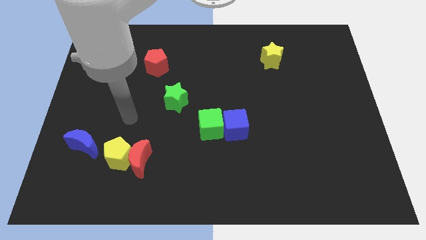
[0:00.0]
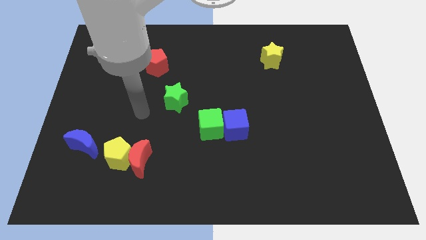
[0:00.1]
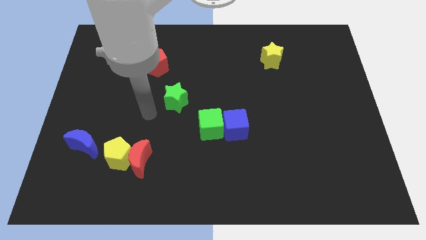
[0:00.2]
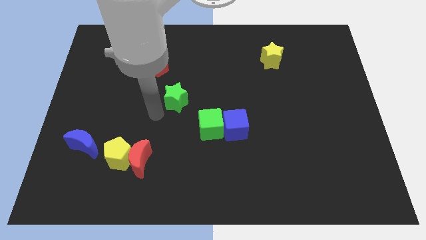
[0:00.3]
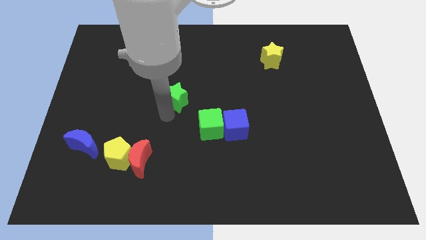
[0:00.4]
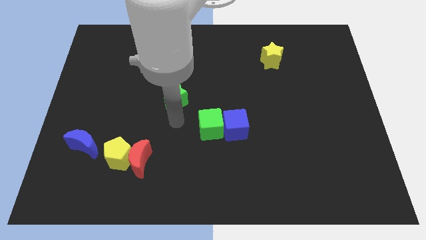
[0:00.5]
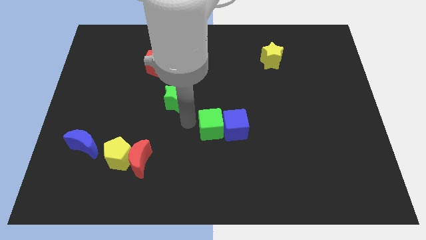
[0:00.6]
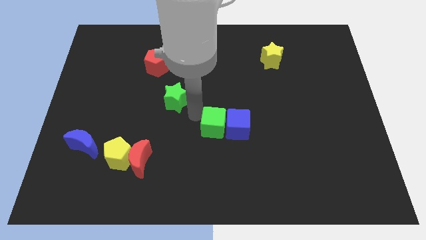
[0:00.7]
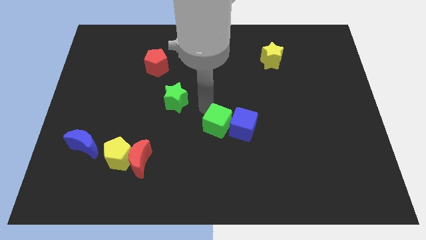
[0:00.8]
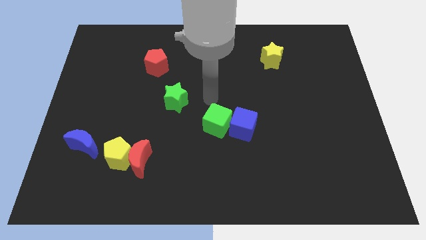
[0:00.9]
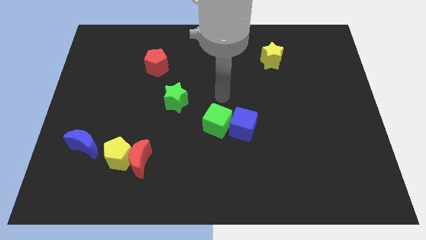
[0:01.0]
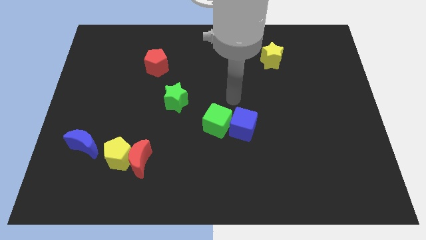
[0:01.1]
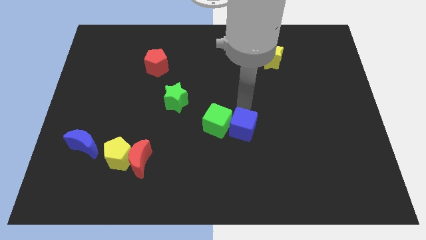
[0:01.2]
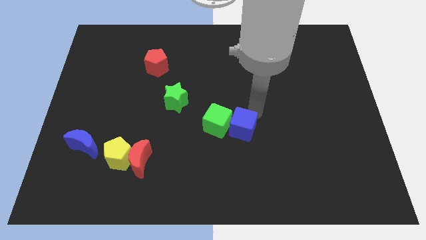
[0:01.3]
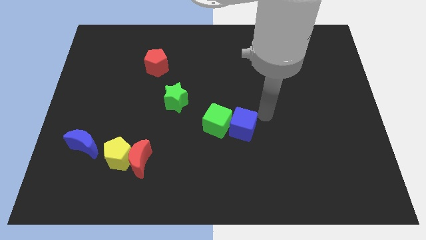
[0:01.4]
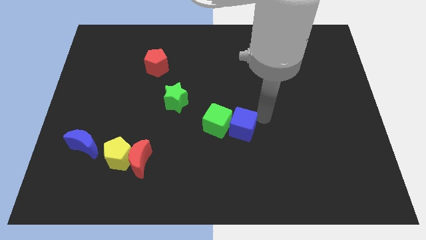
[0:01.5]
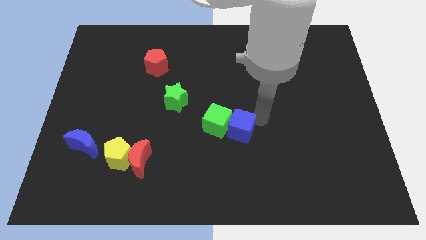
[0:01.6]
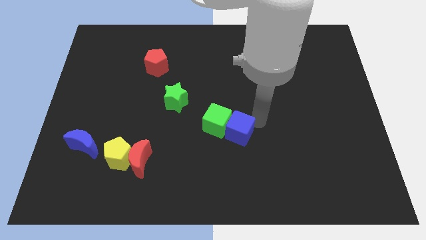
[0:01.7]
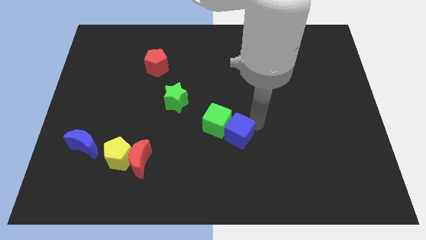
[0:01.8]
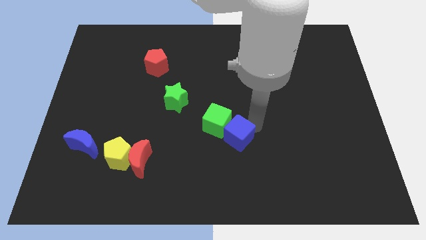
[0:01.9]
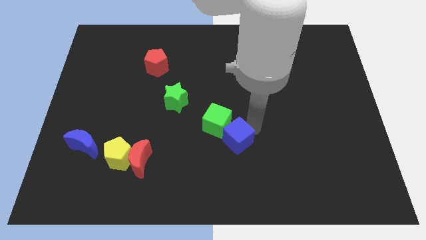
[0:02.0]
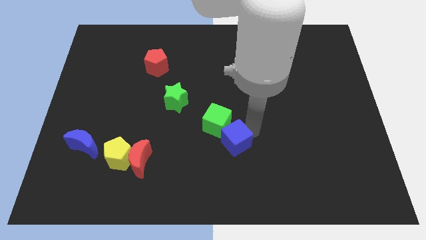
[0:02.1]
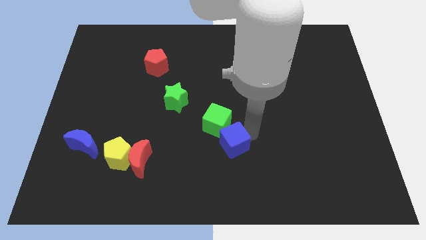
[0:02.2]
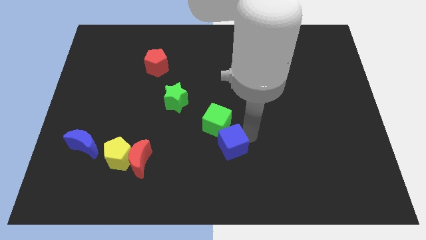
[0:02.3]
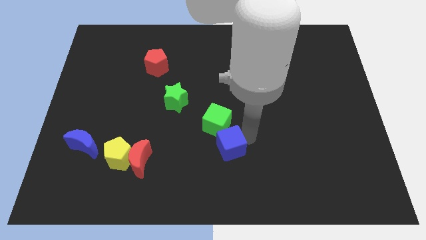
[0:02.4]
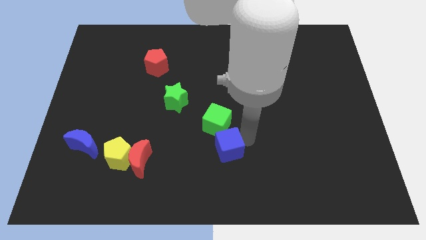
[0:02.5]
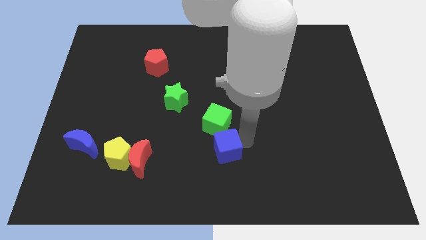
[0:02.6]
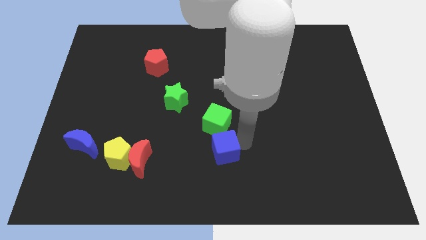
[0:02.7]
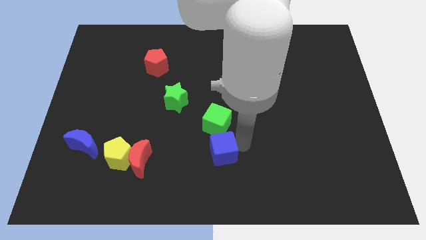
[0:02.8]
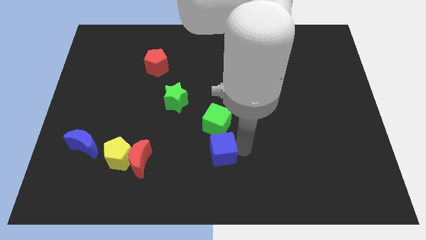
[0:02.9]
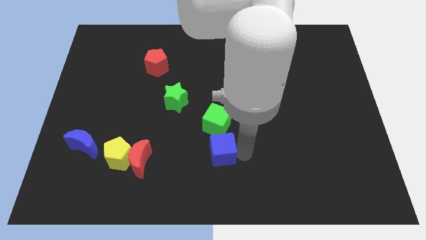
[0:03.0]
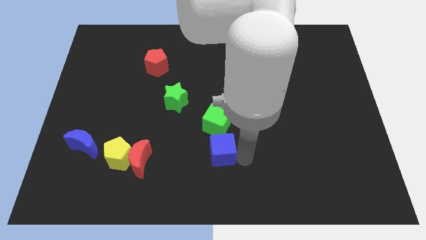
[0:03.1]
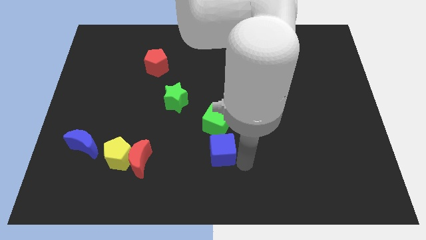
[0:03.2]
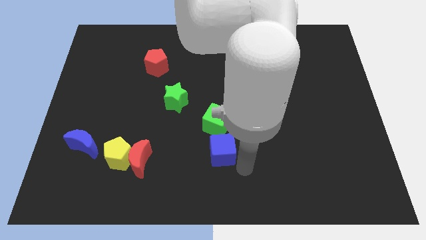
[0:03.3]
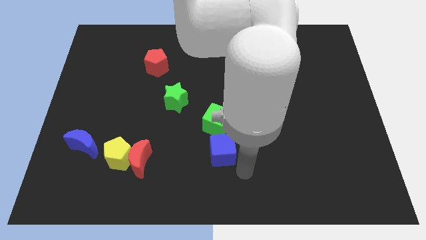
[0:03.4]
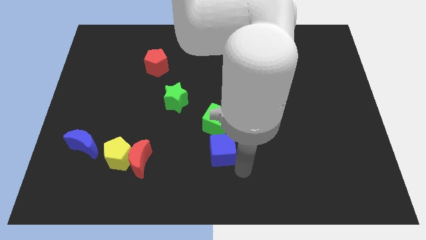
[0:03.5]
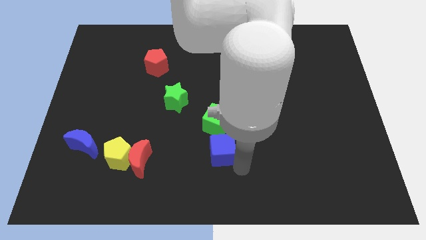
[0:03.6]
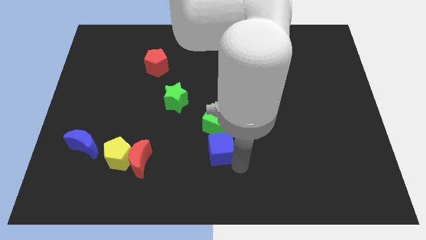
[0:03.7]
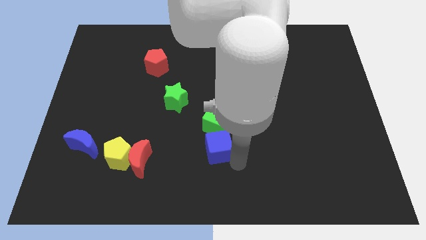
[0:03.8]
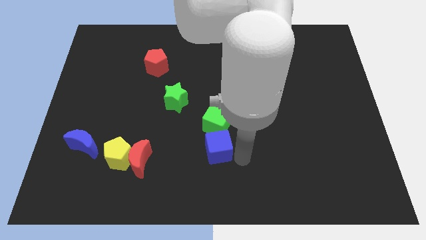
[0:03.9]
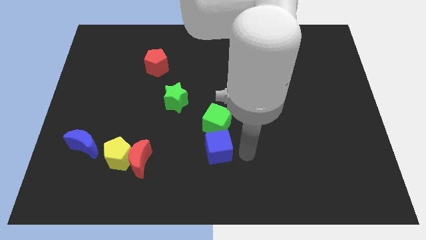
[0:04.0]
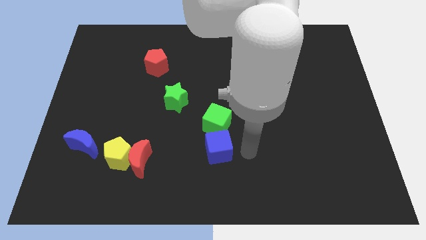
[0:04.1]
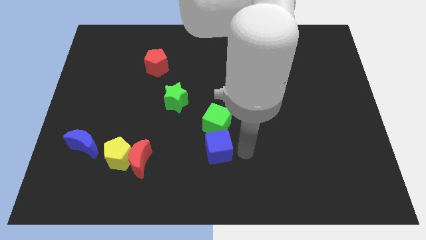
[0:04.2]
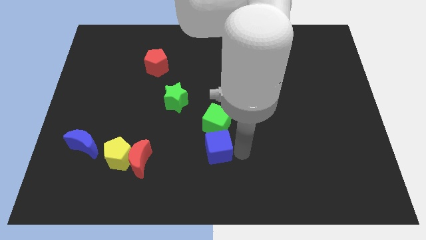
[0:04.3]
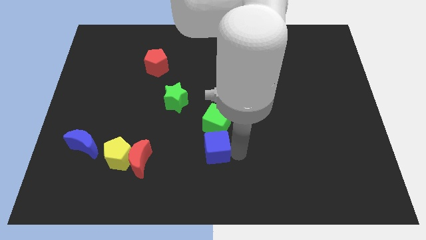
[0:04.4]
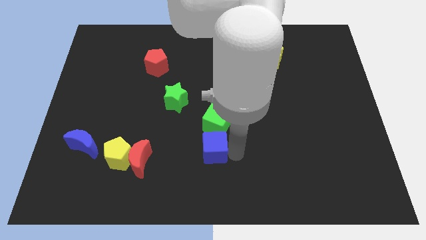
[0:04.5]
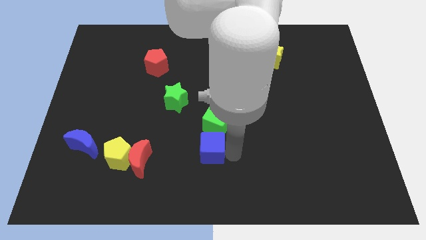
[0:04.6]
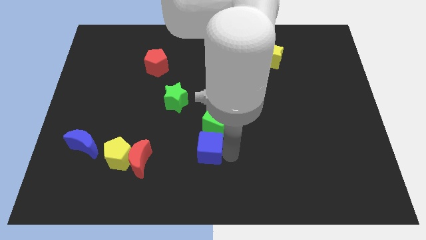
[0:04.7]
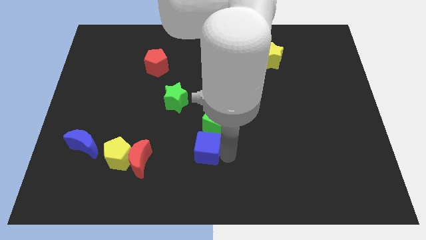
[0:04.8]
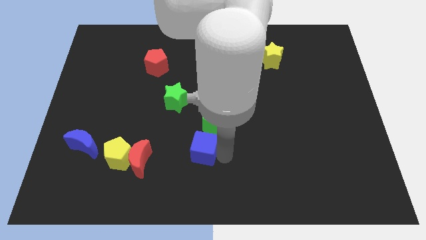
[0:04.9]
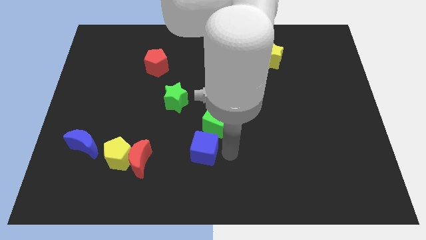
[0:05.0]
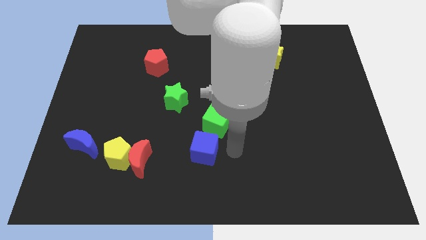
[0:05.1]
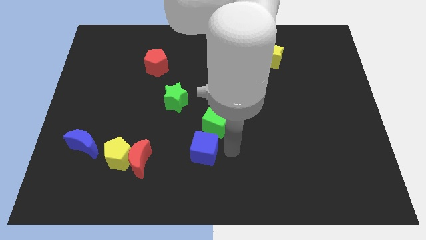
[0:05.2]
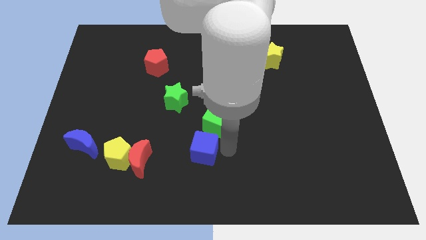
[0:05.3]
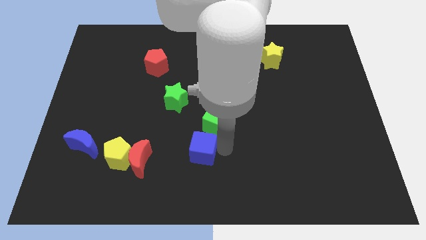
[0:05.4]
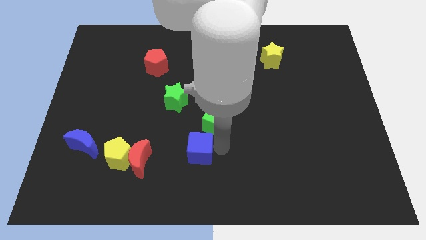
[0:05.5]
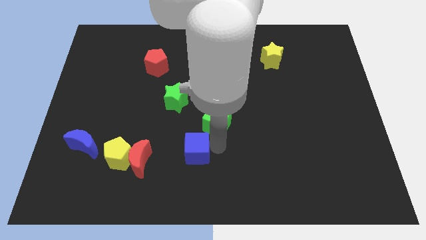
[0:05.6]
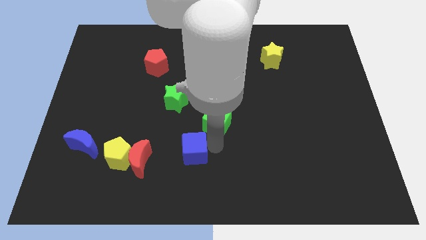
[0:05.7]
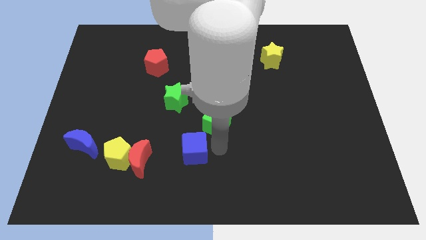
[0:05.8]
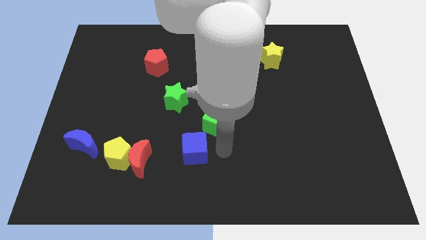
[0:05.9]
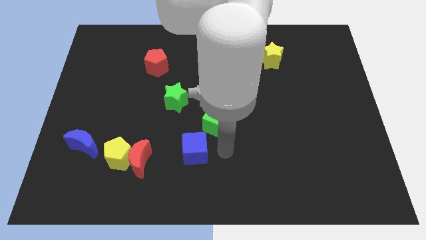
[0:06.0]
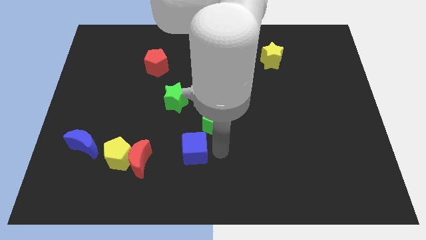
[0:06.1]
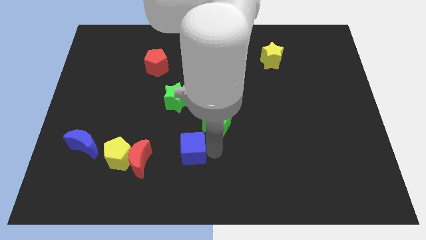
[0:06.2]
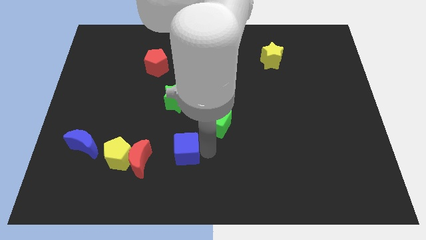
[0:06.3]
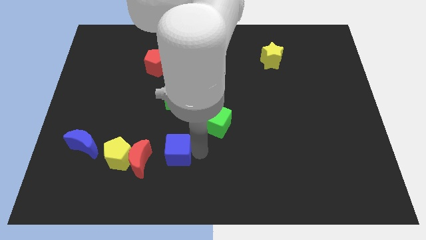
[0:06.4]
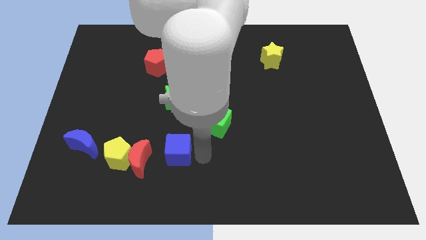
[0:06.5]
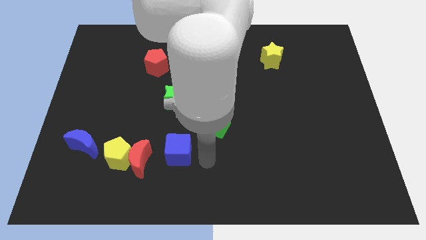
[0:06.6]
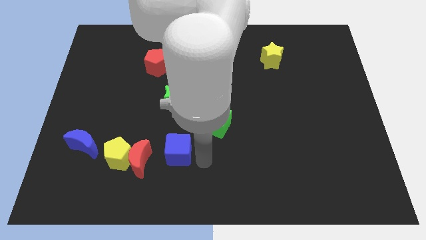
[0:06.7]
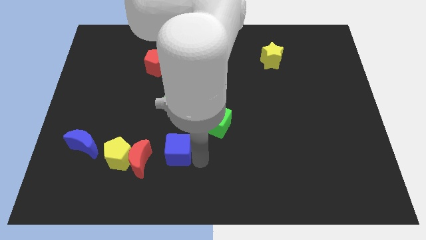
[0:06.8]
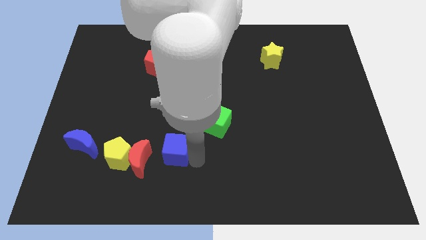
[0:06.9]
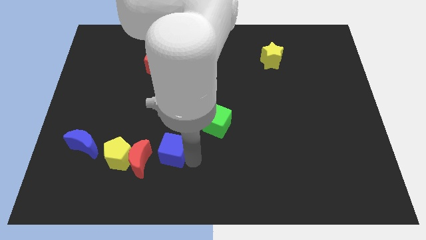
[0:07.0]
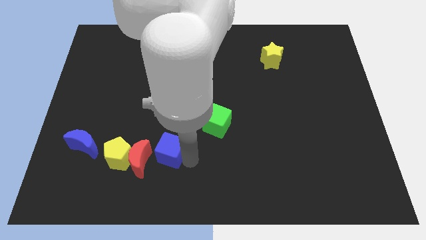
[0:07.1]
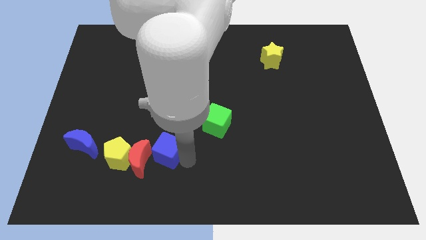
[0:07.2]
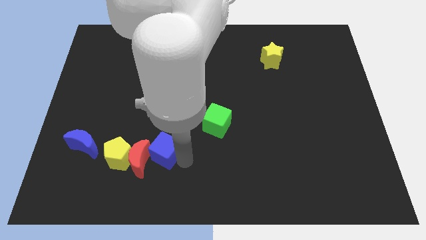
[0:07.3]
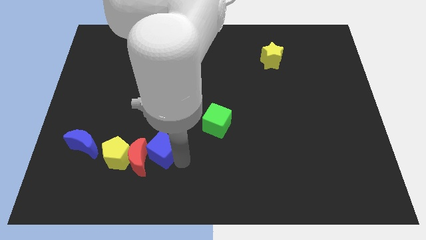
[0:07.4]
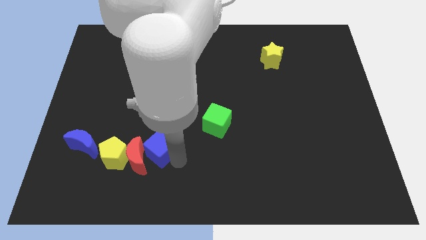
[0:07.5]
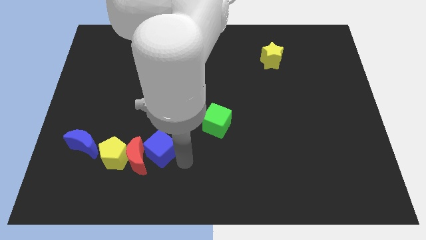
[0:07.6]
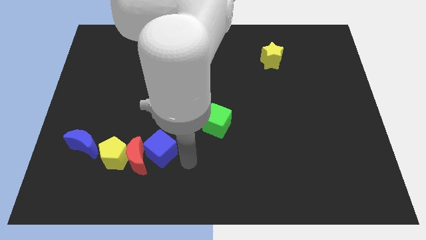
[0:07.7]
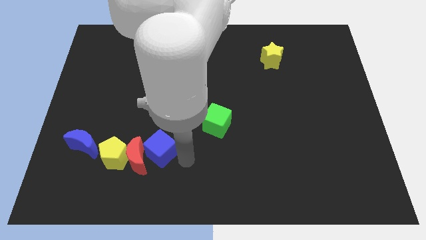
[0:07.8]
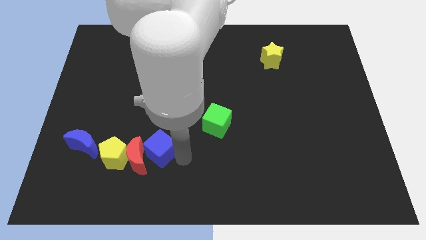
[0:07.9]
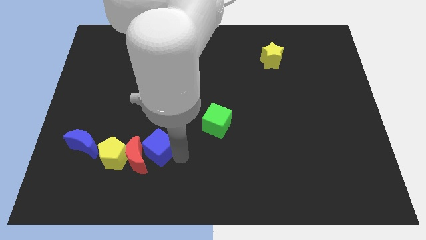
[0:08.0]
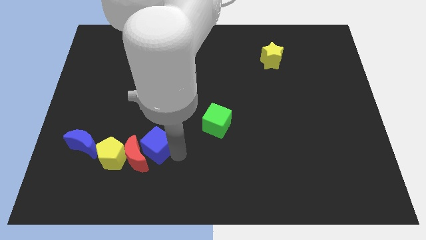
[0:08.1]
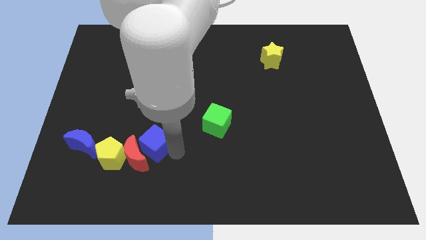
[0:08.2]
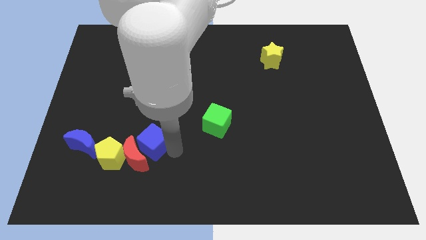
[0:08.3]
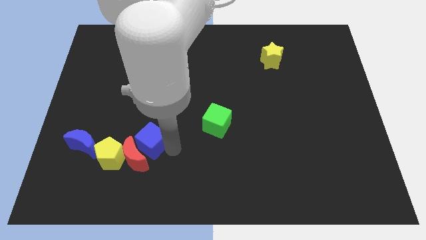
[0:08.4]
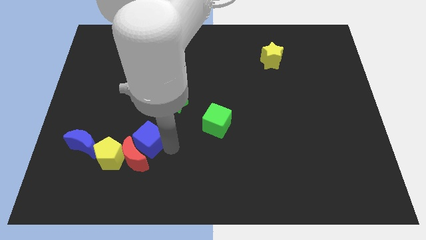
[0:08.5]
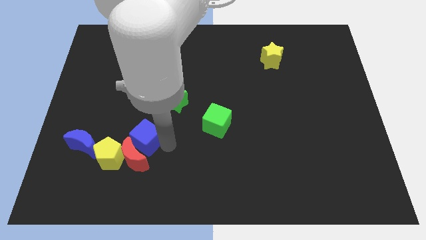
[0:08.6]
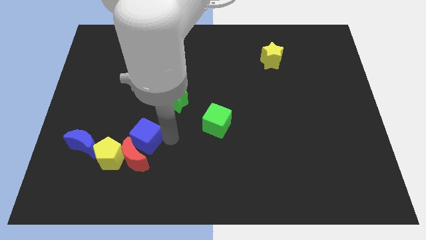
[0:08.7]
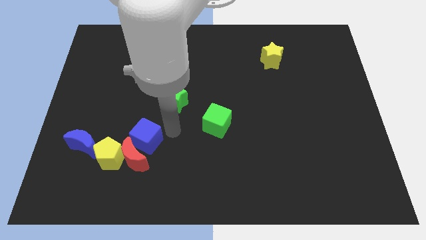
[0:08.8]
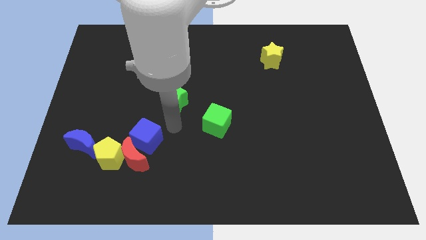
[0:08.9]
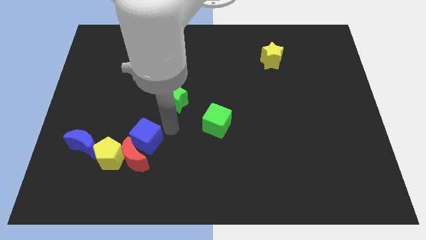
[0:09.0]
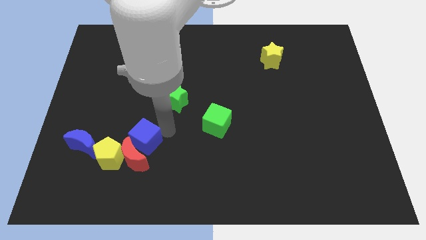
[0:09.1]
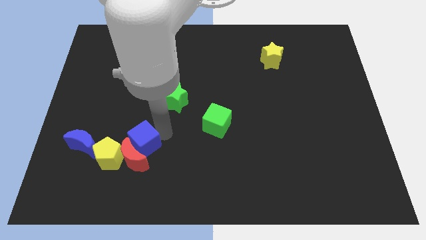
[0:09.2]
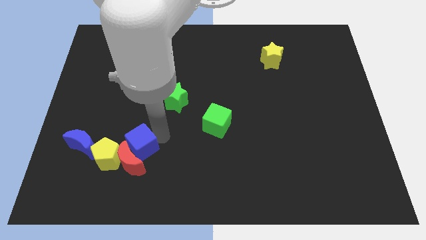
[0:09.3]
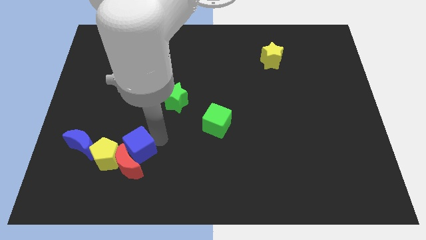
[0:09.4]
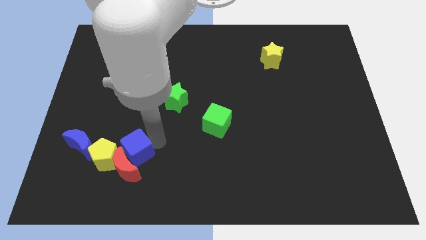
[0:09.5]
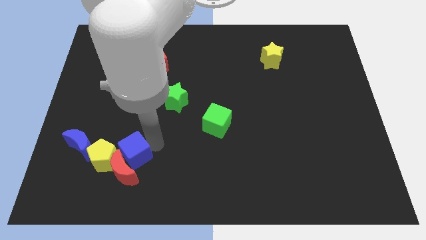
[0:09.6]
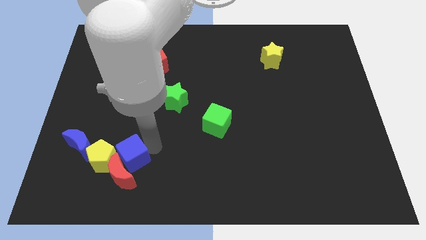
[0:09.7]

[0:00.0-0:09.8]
put the blue cube next to the yellow pentagon
